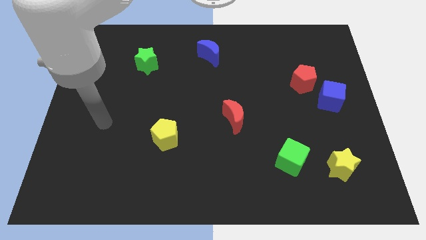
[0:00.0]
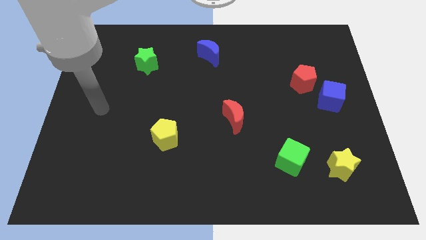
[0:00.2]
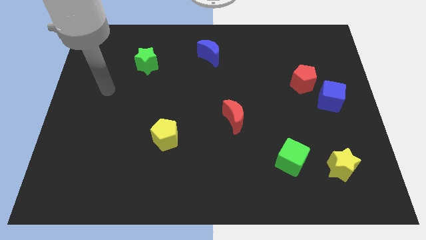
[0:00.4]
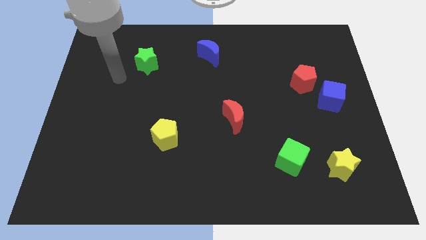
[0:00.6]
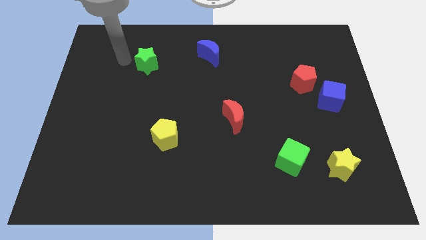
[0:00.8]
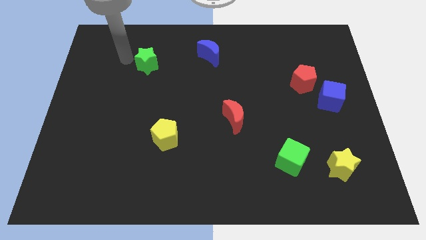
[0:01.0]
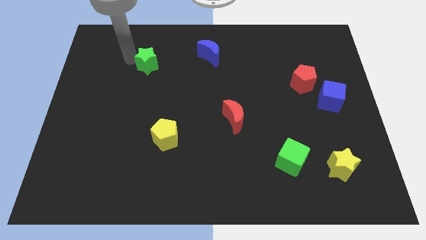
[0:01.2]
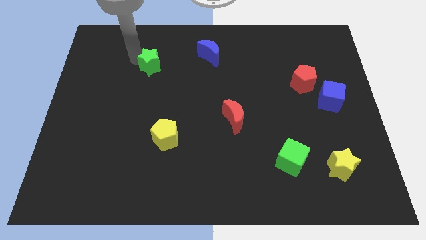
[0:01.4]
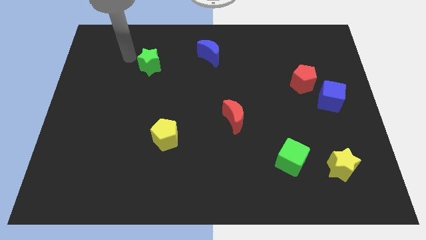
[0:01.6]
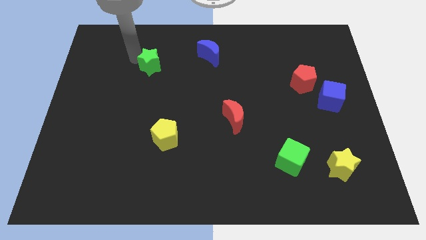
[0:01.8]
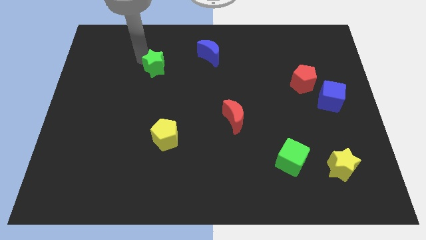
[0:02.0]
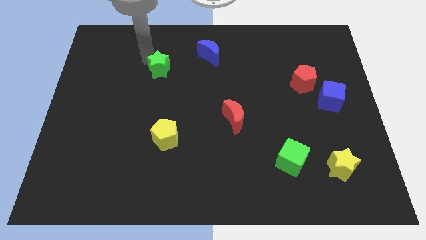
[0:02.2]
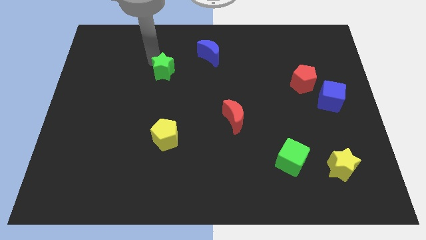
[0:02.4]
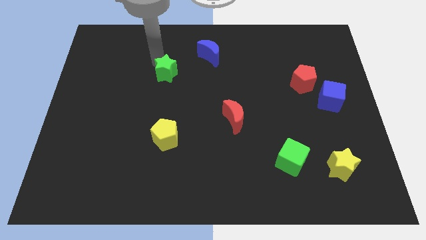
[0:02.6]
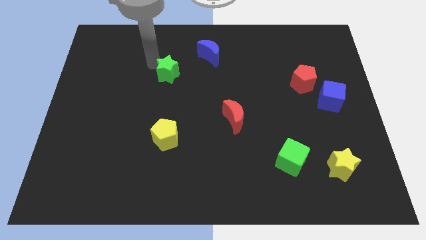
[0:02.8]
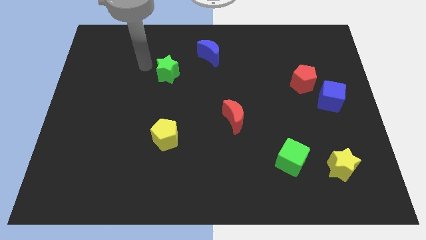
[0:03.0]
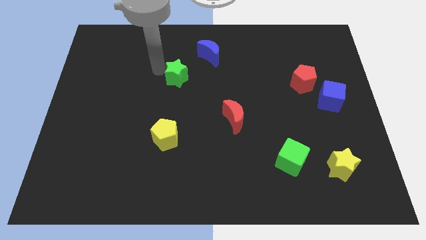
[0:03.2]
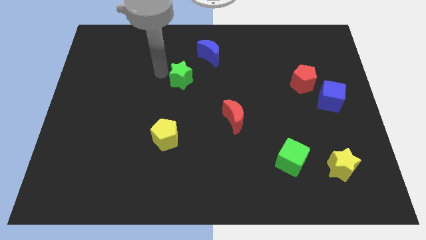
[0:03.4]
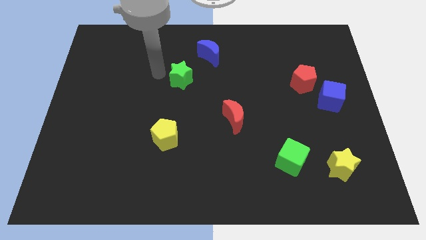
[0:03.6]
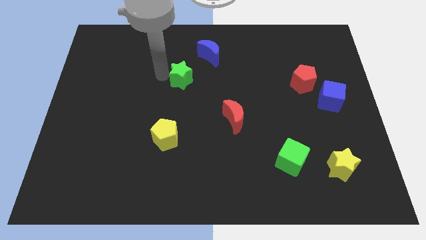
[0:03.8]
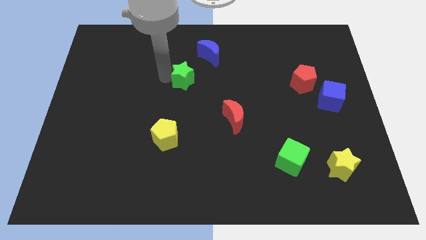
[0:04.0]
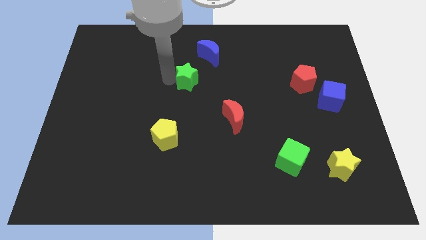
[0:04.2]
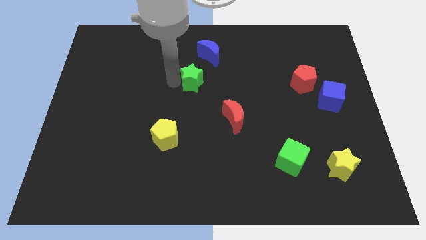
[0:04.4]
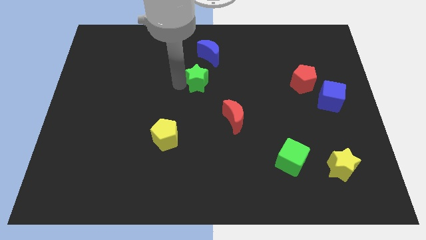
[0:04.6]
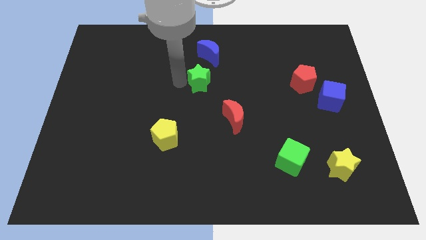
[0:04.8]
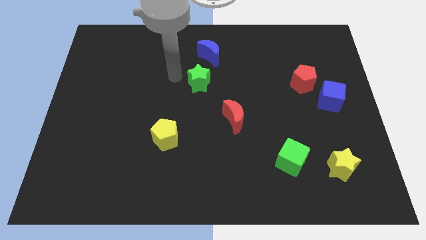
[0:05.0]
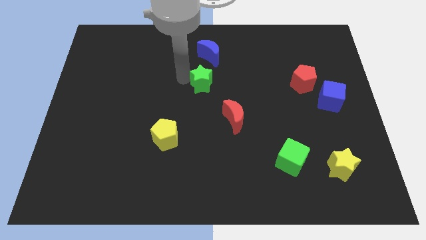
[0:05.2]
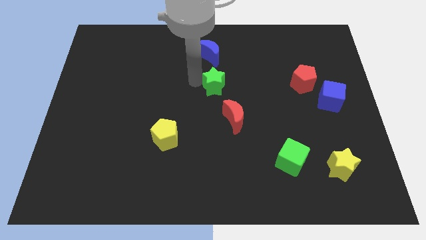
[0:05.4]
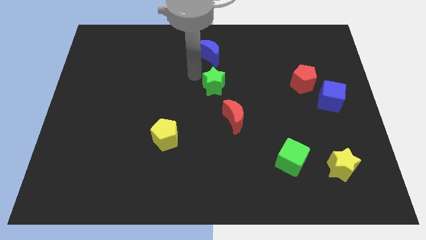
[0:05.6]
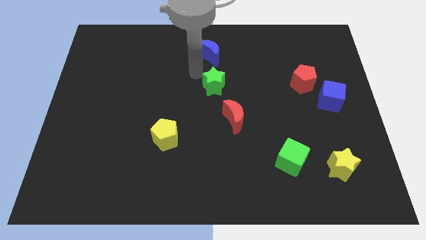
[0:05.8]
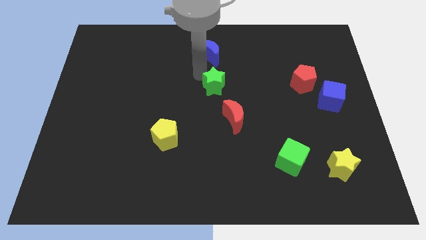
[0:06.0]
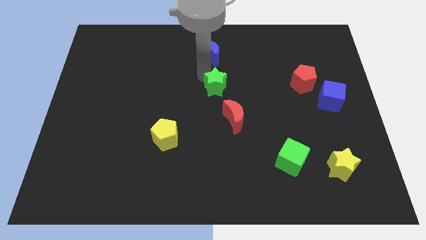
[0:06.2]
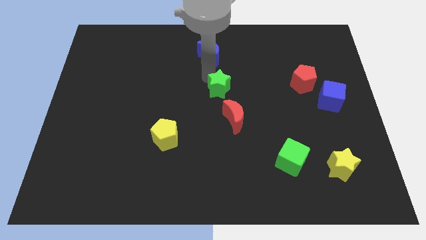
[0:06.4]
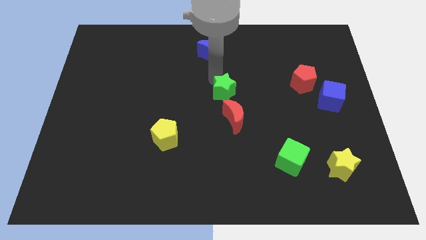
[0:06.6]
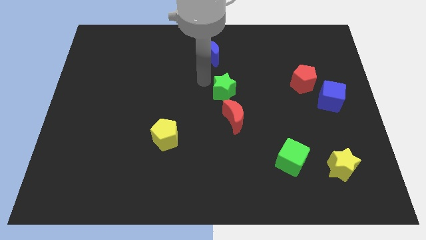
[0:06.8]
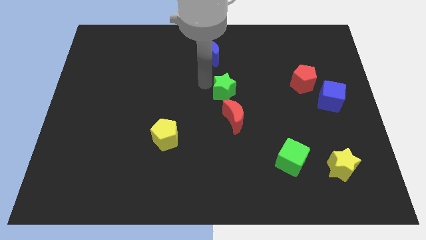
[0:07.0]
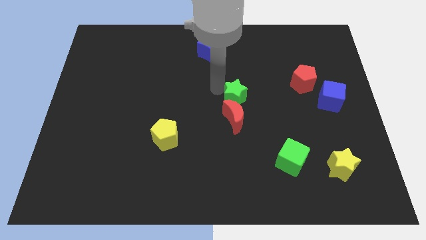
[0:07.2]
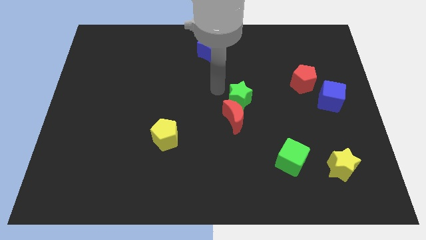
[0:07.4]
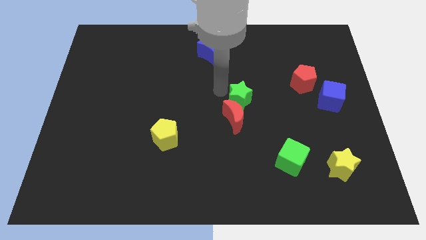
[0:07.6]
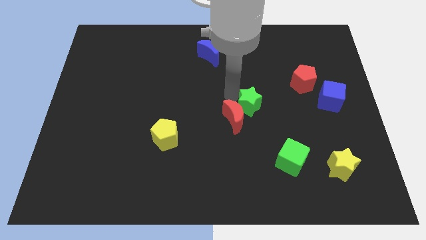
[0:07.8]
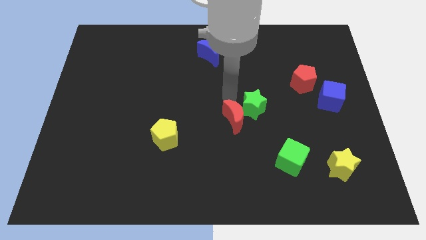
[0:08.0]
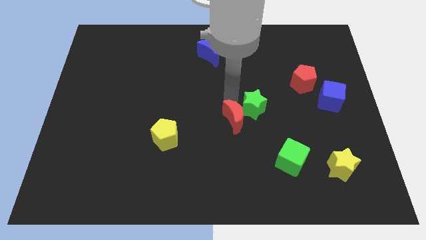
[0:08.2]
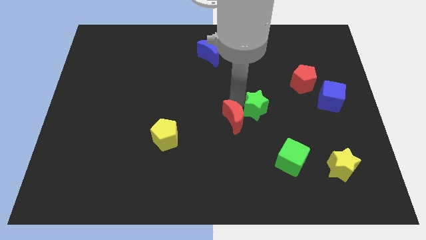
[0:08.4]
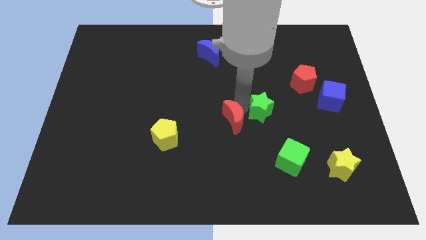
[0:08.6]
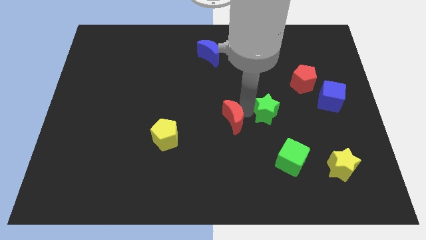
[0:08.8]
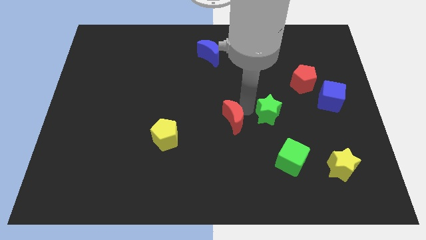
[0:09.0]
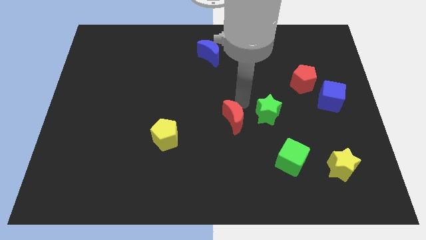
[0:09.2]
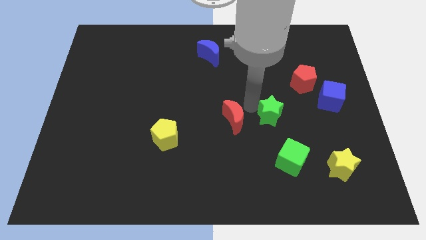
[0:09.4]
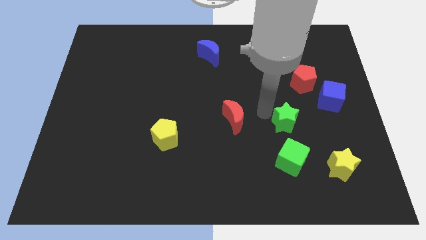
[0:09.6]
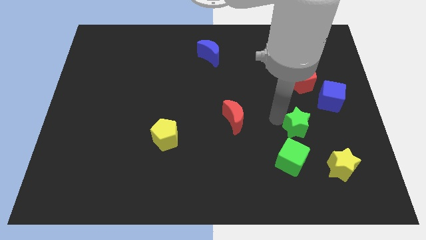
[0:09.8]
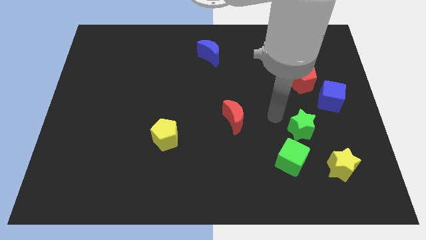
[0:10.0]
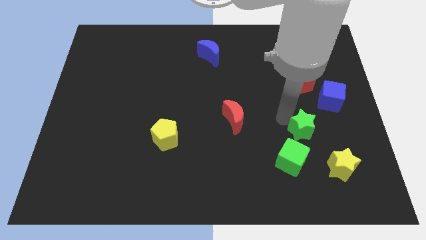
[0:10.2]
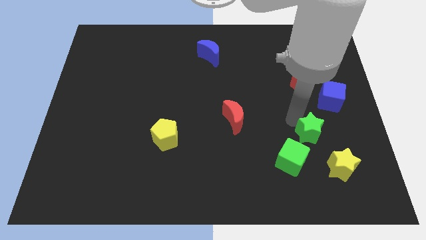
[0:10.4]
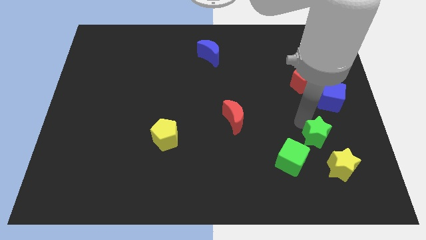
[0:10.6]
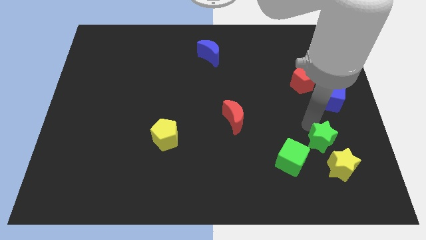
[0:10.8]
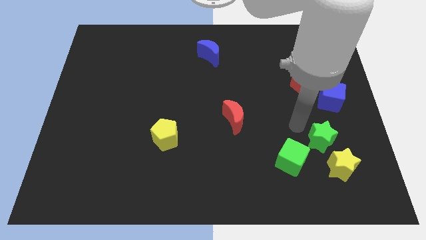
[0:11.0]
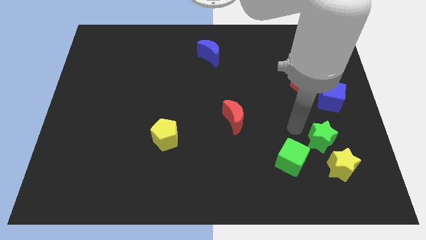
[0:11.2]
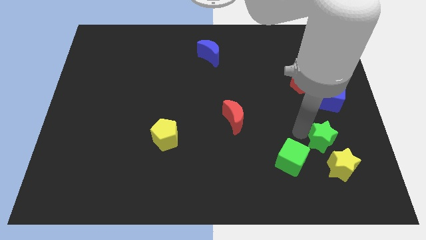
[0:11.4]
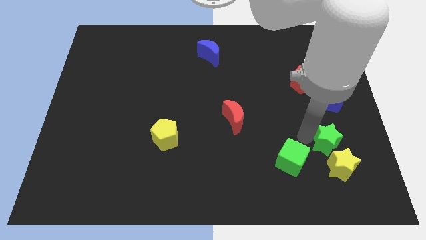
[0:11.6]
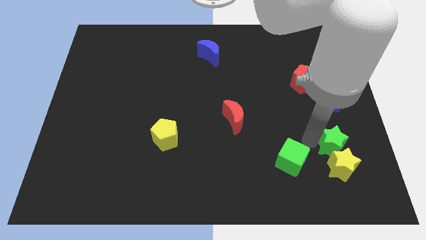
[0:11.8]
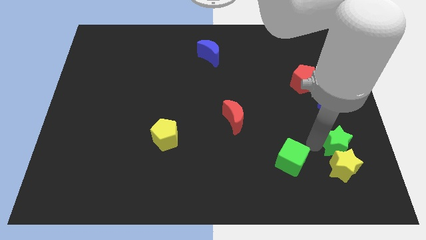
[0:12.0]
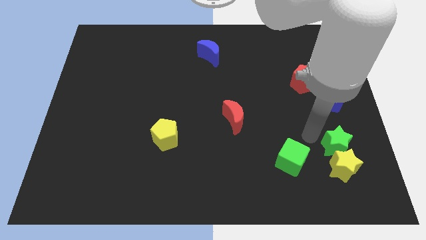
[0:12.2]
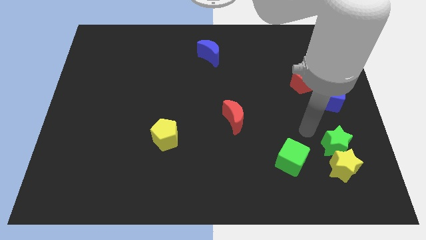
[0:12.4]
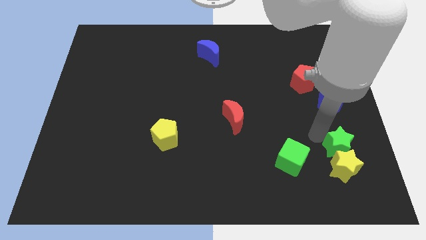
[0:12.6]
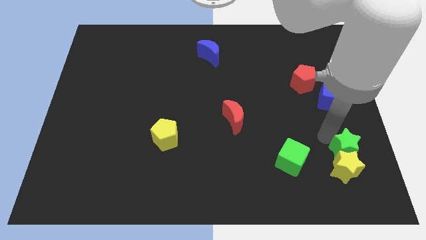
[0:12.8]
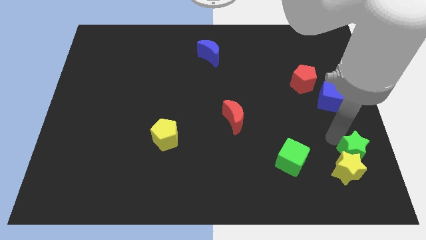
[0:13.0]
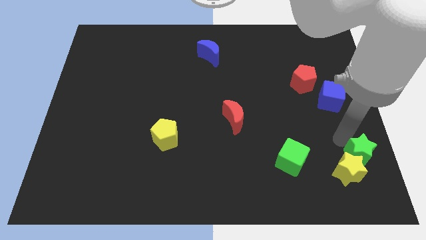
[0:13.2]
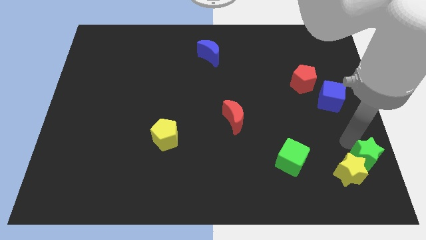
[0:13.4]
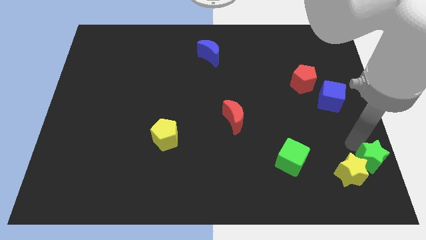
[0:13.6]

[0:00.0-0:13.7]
move the green star to the lower right corner

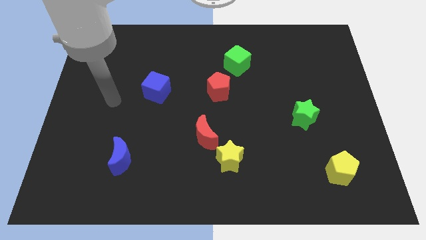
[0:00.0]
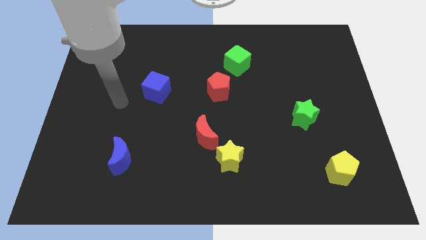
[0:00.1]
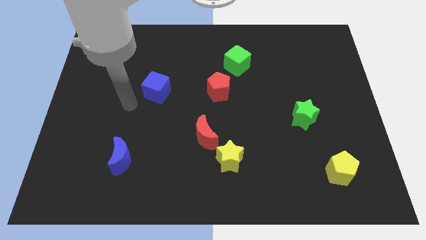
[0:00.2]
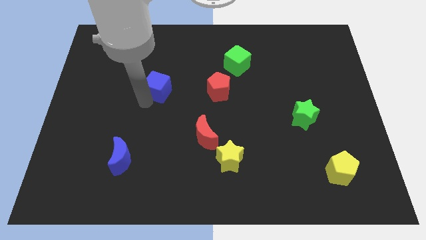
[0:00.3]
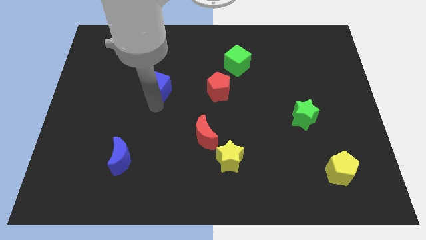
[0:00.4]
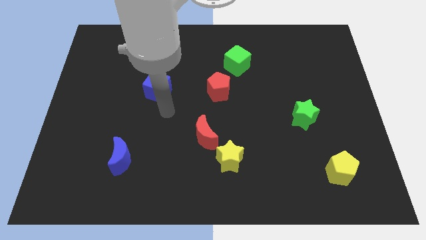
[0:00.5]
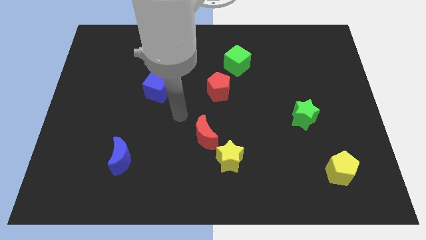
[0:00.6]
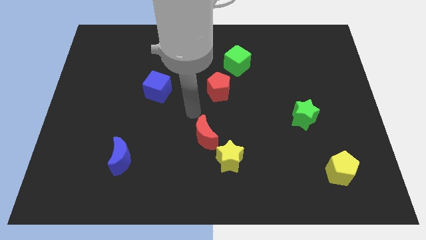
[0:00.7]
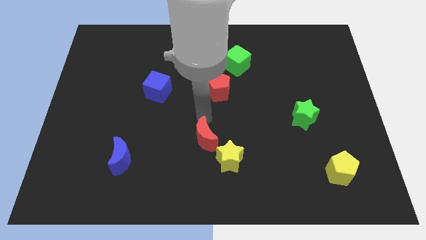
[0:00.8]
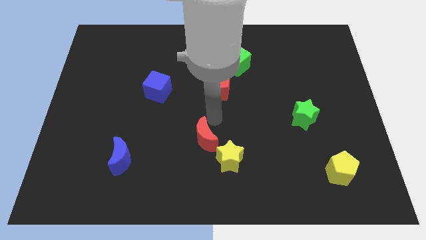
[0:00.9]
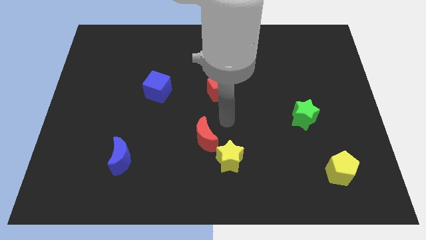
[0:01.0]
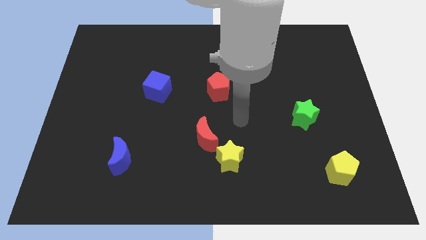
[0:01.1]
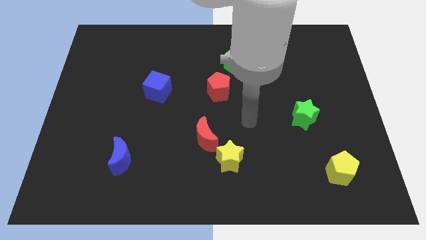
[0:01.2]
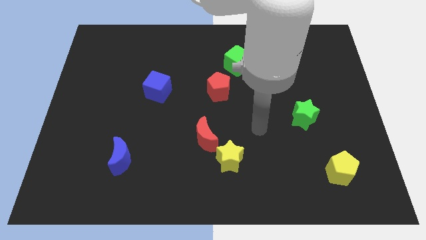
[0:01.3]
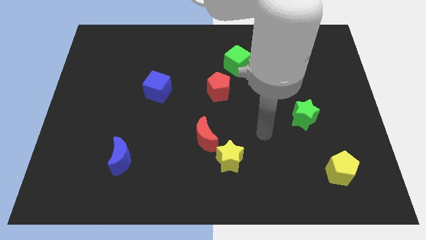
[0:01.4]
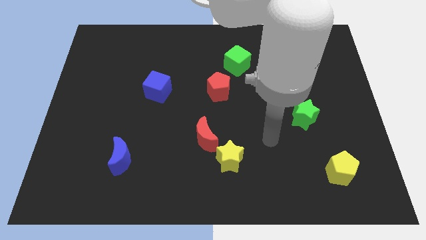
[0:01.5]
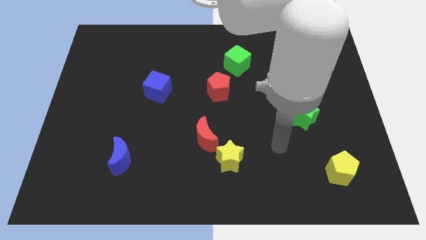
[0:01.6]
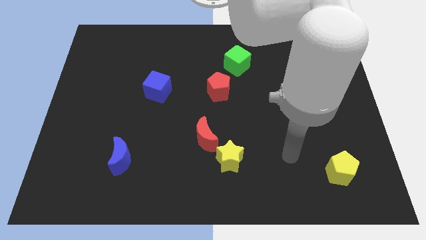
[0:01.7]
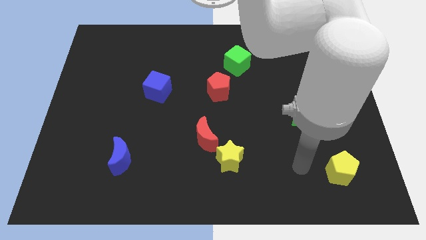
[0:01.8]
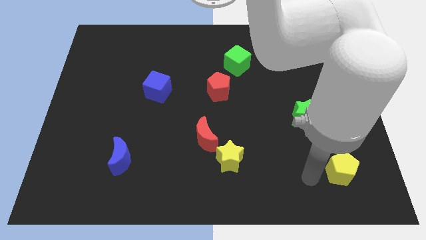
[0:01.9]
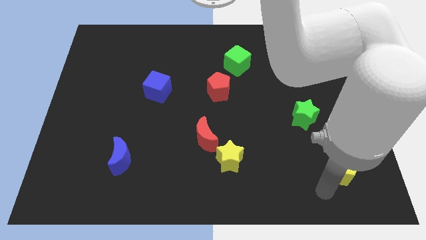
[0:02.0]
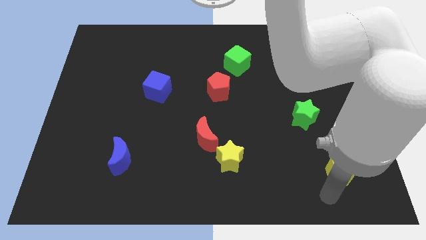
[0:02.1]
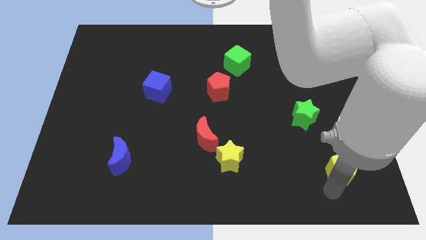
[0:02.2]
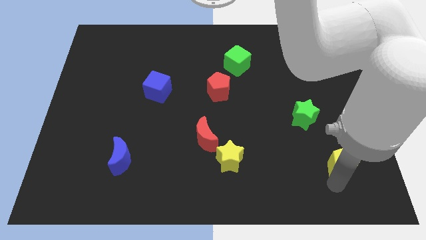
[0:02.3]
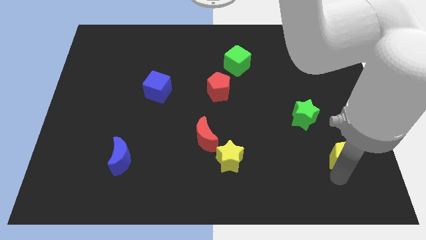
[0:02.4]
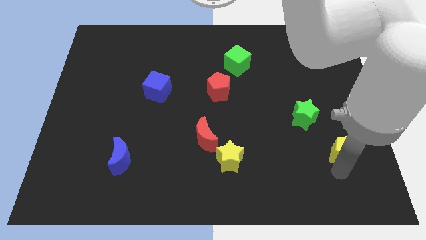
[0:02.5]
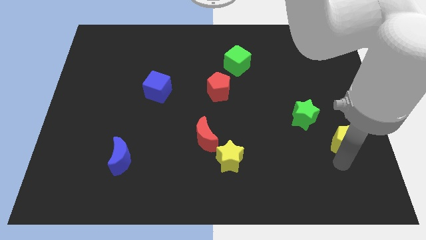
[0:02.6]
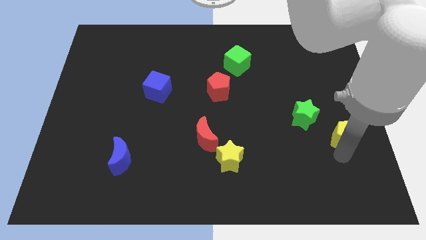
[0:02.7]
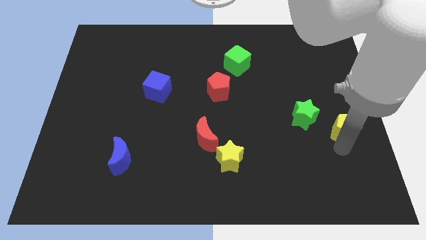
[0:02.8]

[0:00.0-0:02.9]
slide the yellow pentagon to the right side of the board
